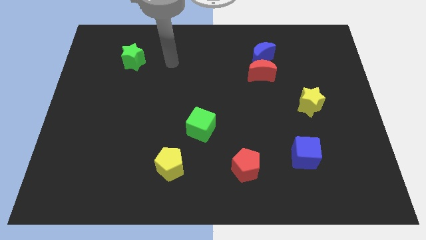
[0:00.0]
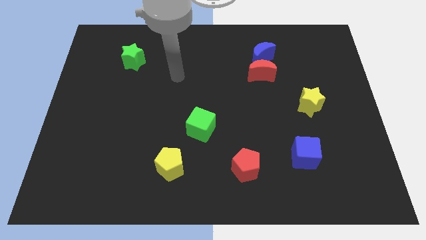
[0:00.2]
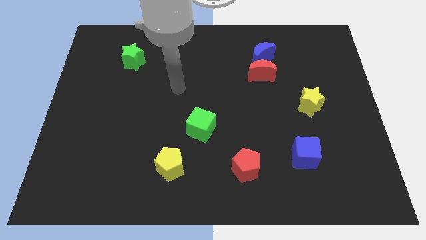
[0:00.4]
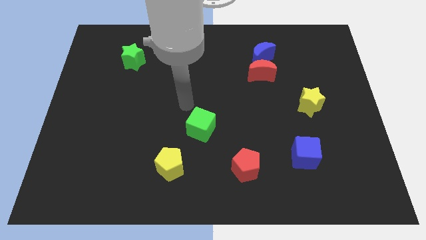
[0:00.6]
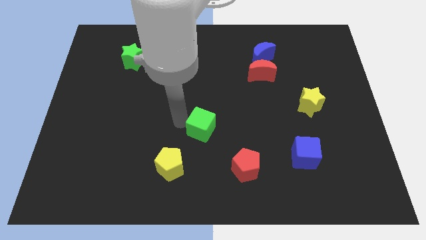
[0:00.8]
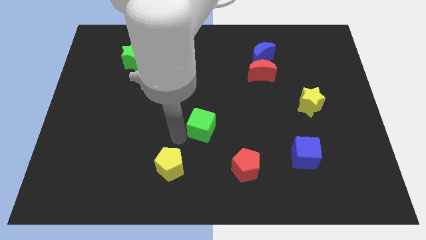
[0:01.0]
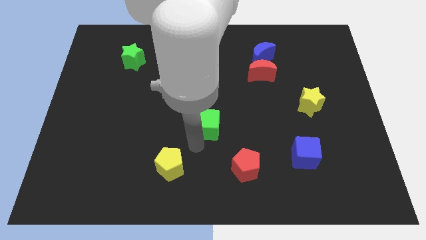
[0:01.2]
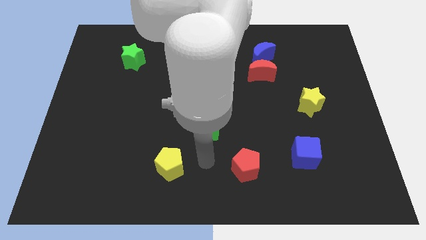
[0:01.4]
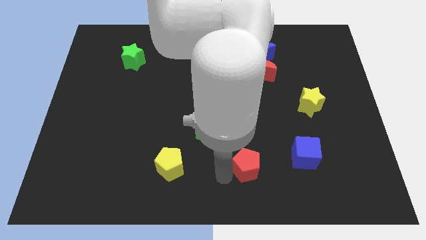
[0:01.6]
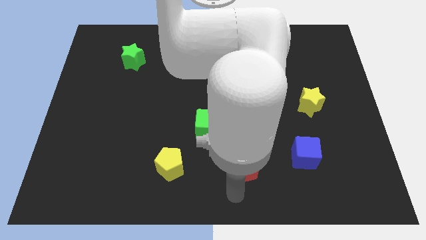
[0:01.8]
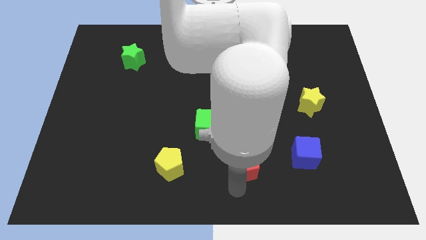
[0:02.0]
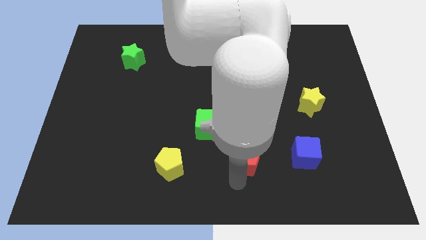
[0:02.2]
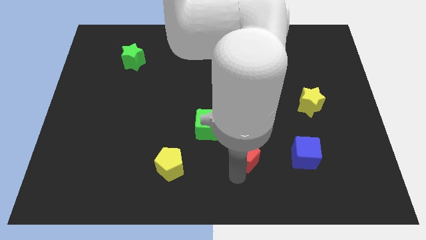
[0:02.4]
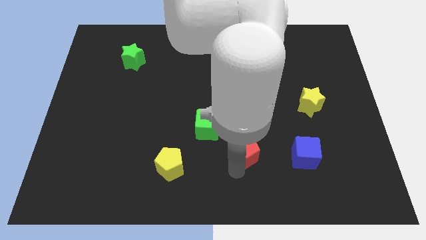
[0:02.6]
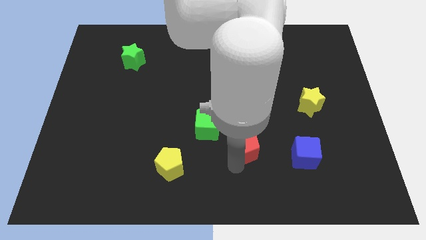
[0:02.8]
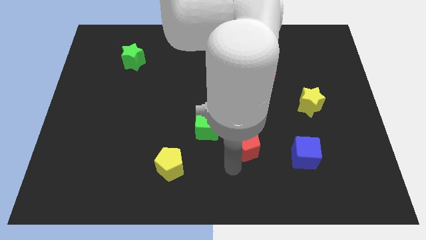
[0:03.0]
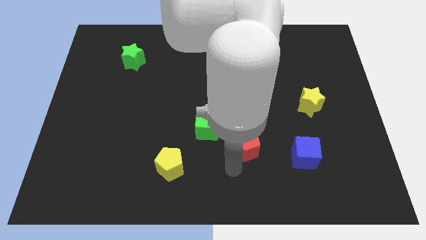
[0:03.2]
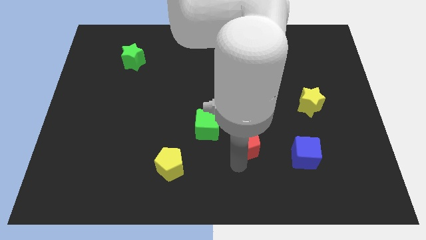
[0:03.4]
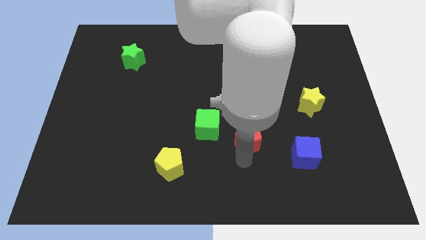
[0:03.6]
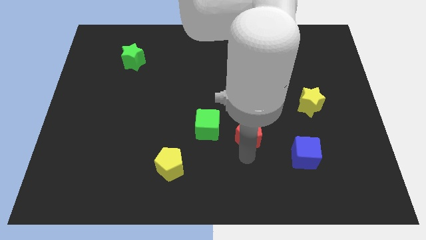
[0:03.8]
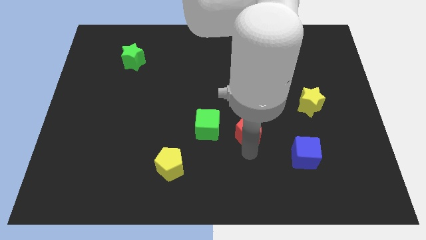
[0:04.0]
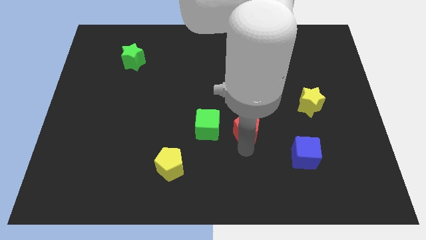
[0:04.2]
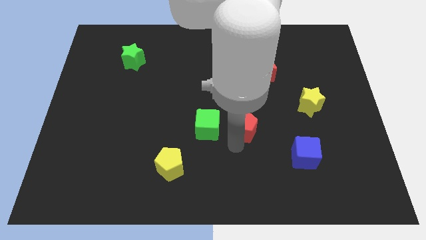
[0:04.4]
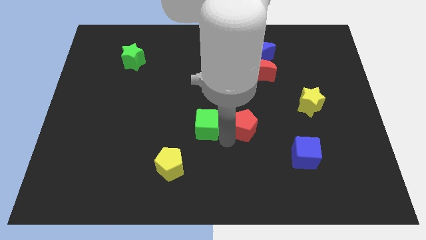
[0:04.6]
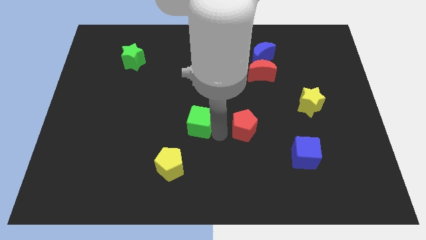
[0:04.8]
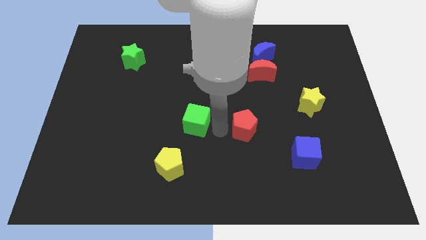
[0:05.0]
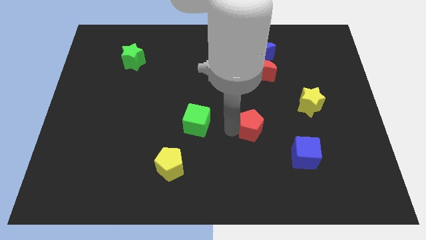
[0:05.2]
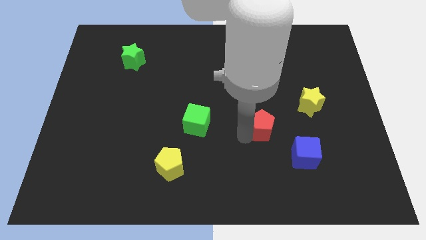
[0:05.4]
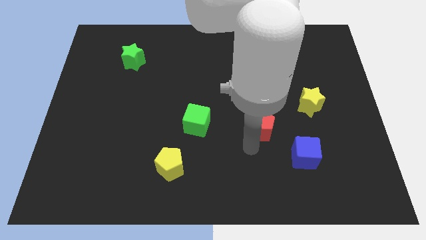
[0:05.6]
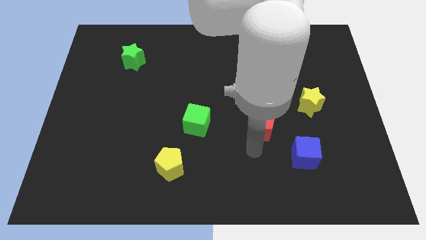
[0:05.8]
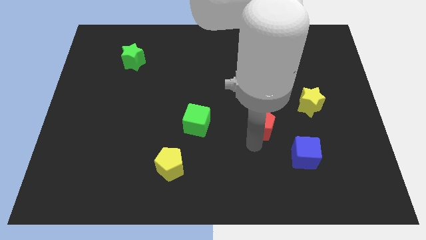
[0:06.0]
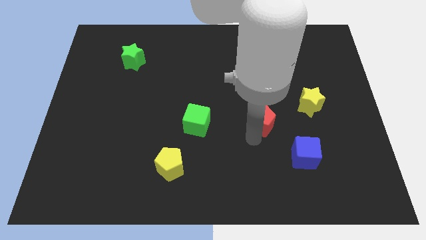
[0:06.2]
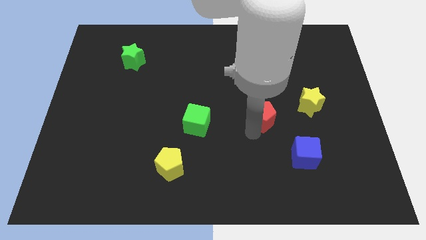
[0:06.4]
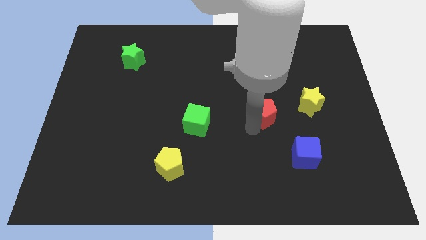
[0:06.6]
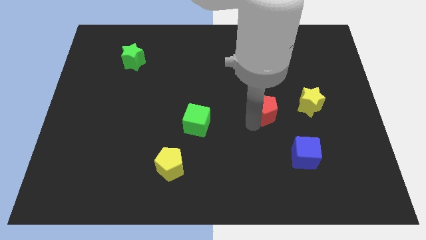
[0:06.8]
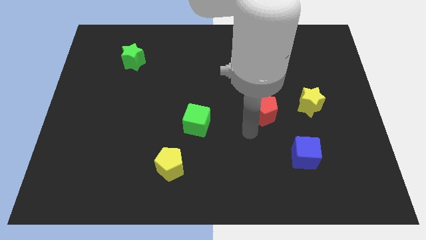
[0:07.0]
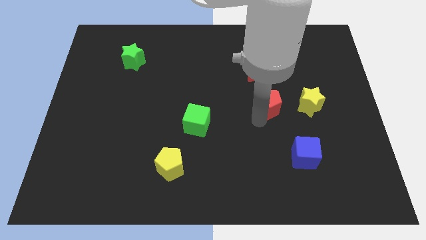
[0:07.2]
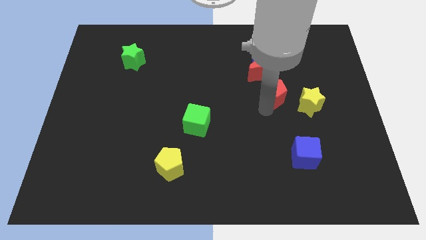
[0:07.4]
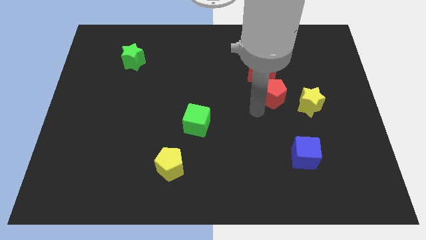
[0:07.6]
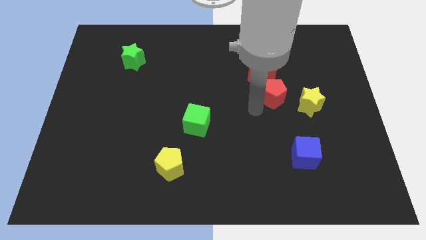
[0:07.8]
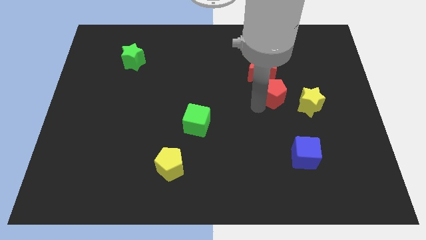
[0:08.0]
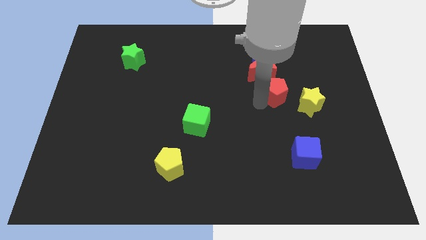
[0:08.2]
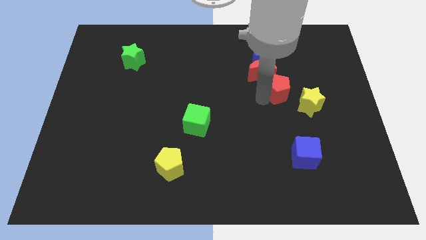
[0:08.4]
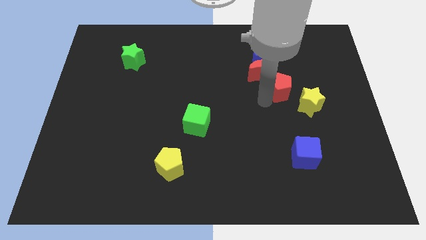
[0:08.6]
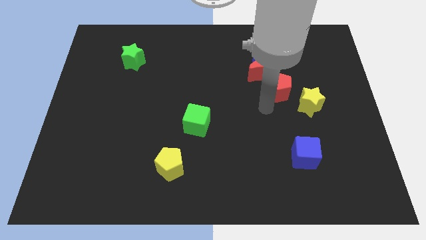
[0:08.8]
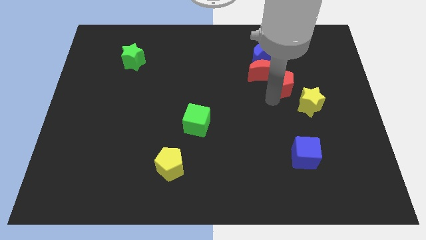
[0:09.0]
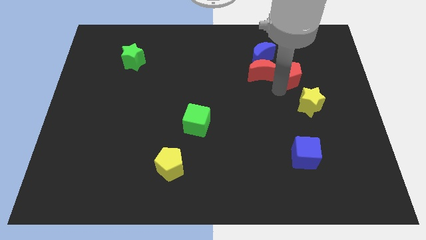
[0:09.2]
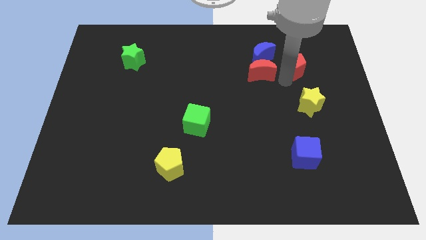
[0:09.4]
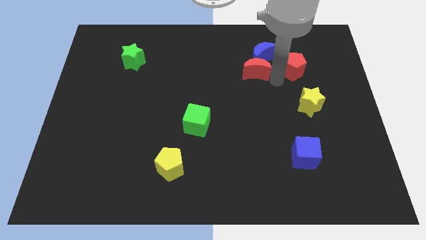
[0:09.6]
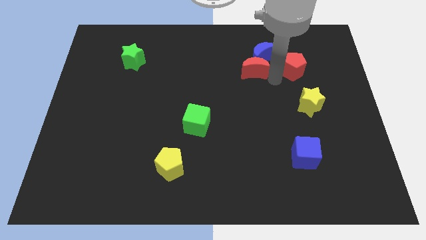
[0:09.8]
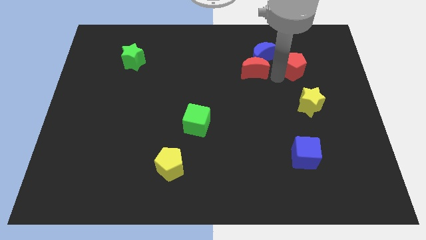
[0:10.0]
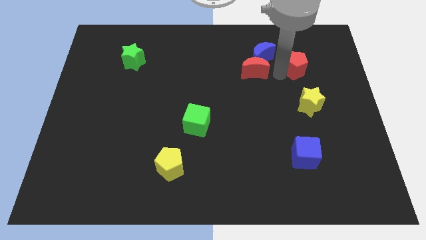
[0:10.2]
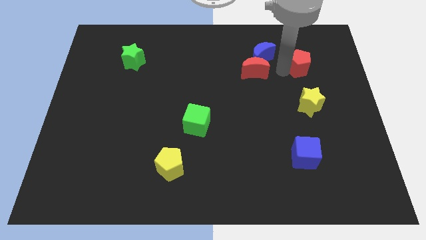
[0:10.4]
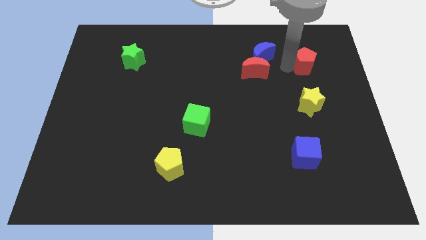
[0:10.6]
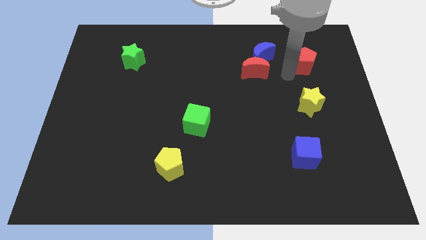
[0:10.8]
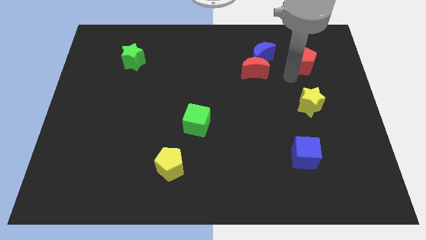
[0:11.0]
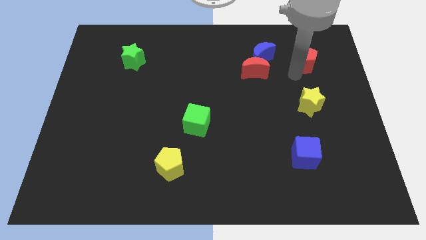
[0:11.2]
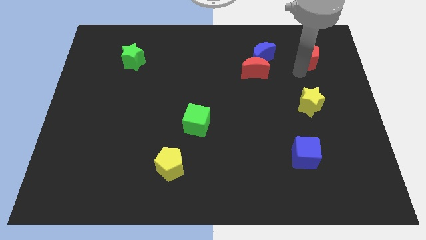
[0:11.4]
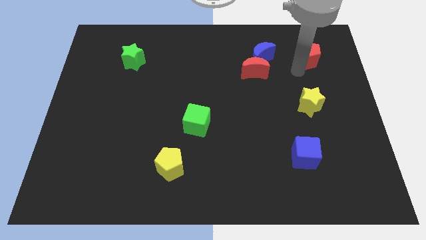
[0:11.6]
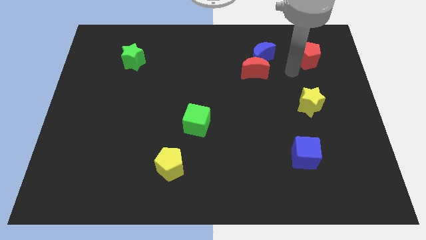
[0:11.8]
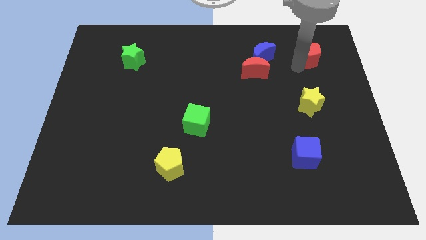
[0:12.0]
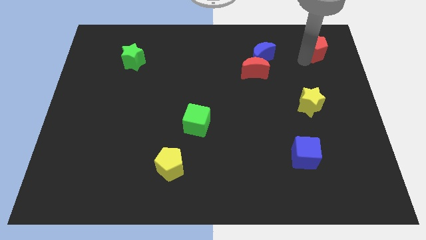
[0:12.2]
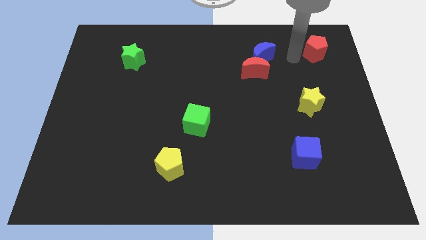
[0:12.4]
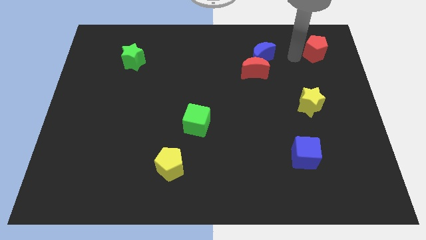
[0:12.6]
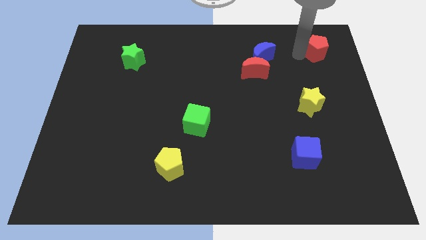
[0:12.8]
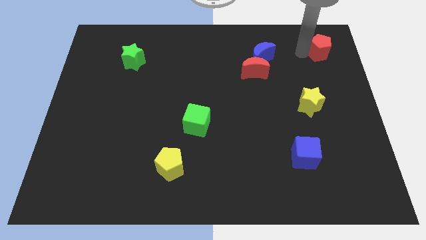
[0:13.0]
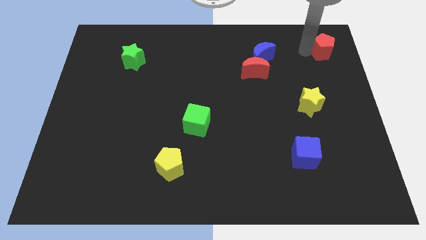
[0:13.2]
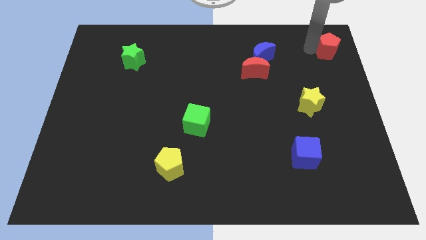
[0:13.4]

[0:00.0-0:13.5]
put the red pentagon to the top right corner
